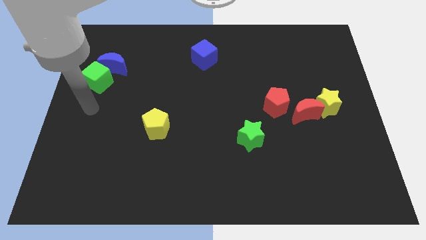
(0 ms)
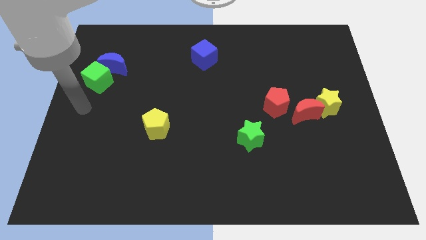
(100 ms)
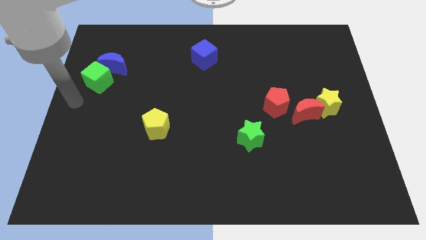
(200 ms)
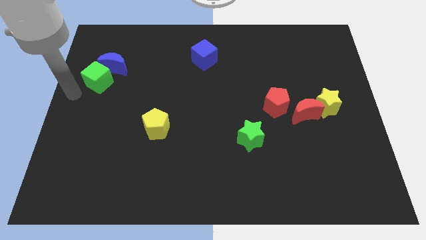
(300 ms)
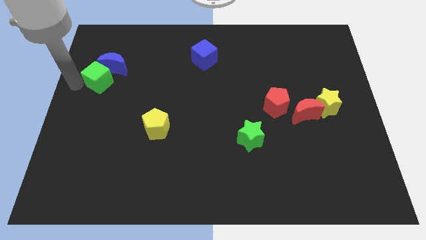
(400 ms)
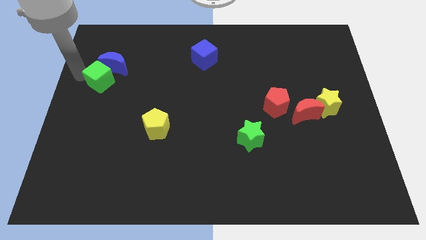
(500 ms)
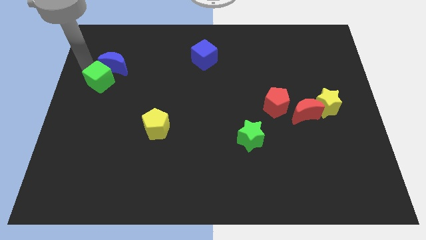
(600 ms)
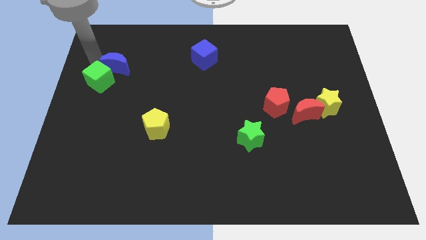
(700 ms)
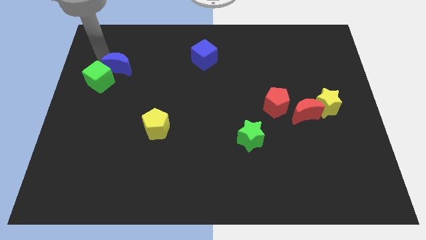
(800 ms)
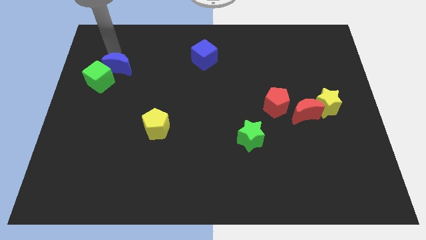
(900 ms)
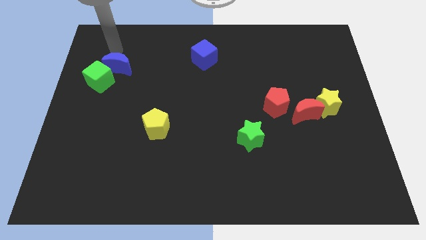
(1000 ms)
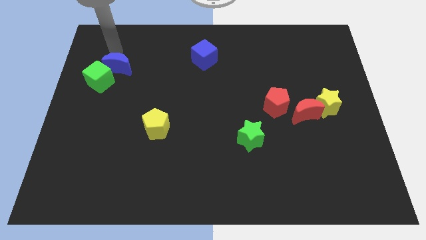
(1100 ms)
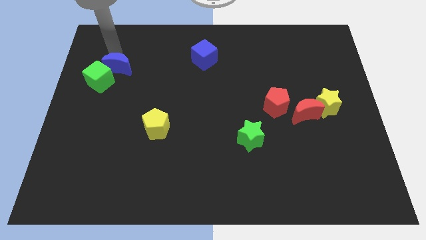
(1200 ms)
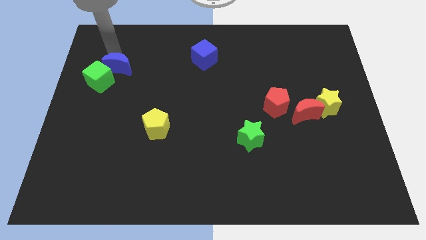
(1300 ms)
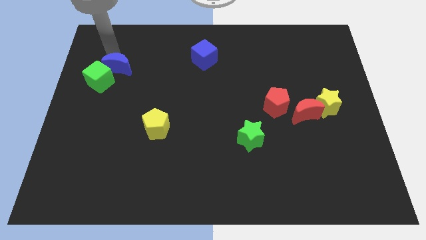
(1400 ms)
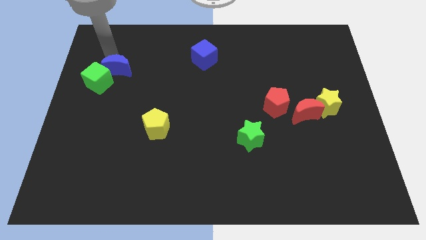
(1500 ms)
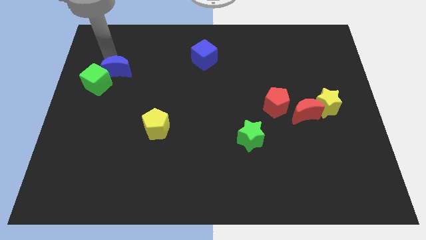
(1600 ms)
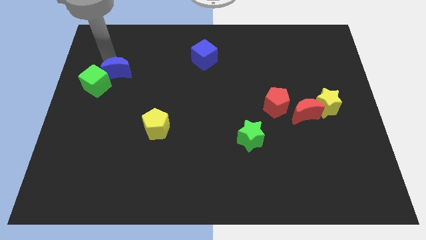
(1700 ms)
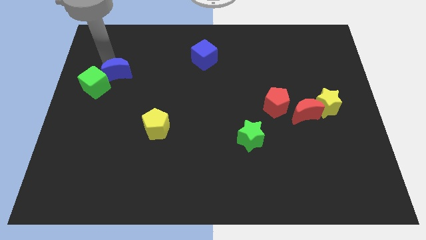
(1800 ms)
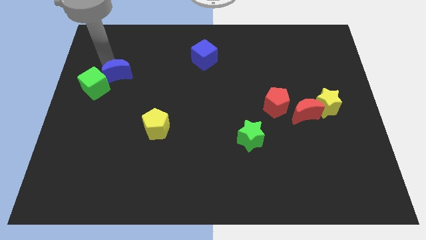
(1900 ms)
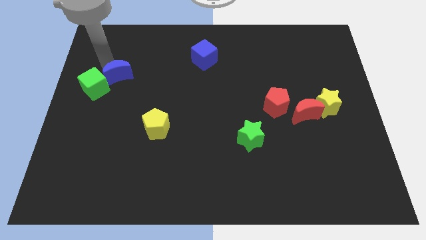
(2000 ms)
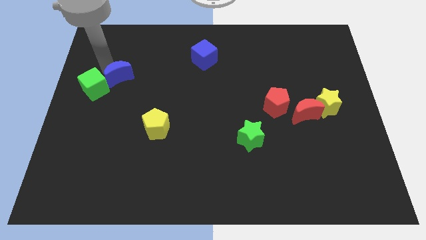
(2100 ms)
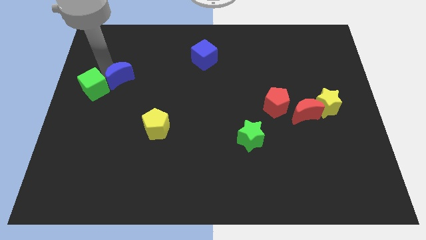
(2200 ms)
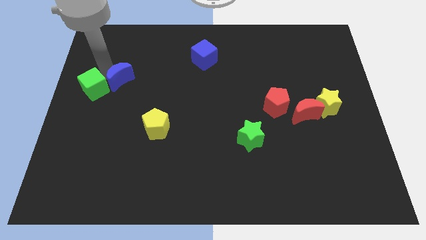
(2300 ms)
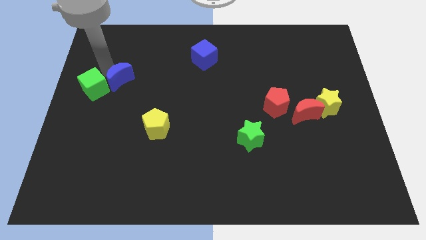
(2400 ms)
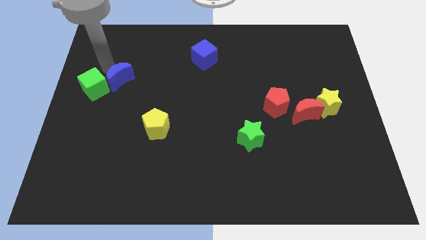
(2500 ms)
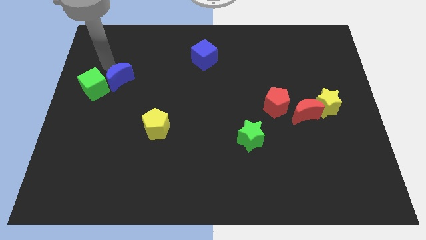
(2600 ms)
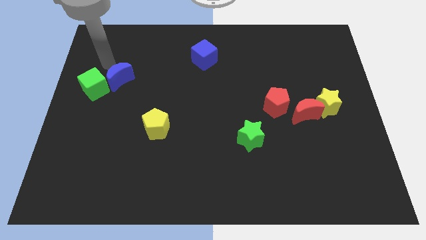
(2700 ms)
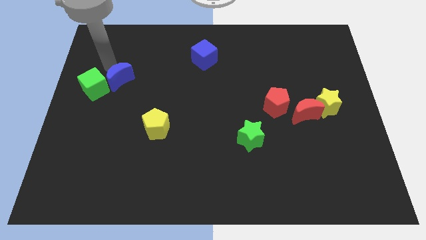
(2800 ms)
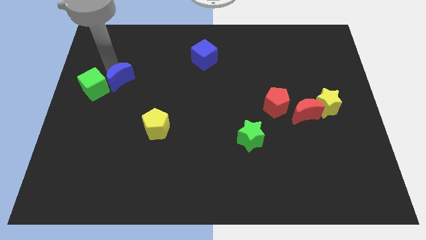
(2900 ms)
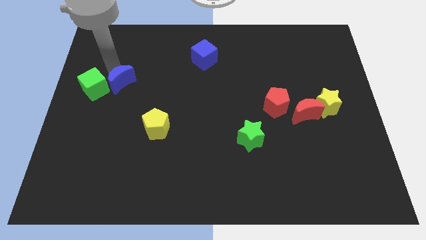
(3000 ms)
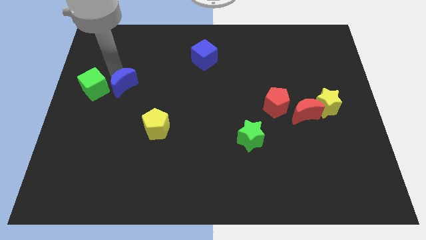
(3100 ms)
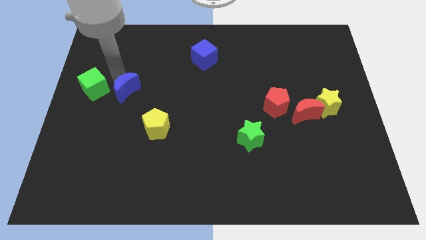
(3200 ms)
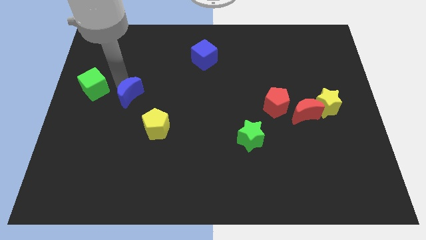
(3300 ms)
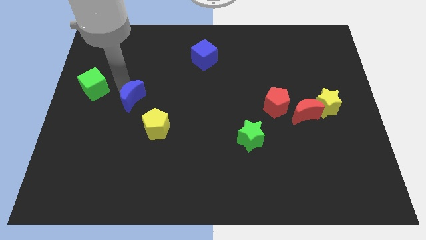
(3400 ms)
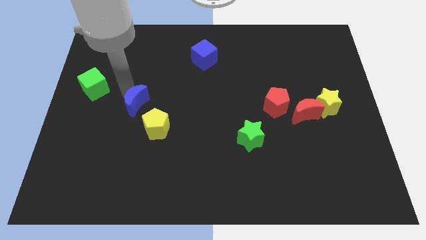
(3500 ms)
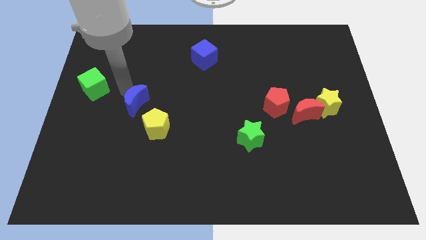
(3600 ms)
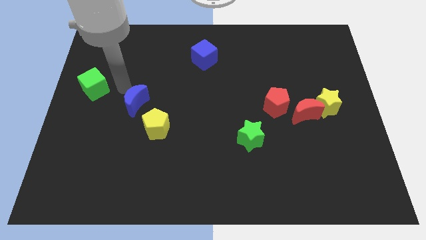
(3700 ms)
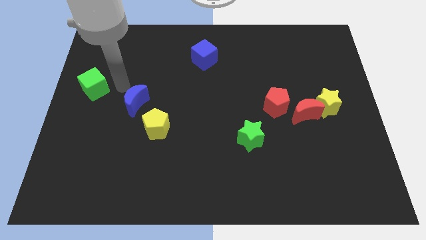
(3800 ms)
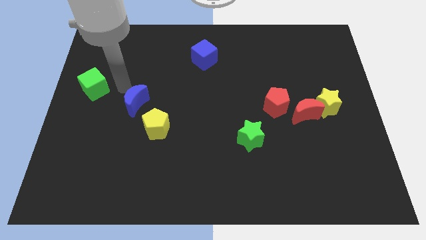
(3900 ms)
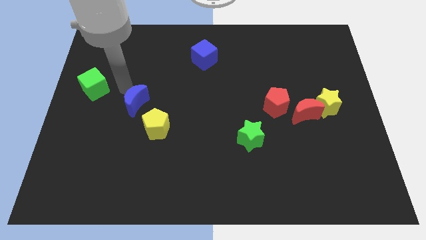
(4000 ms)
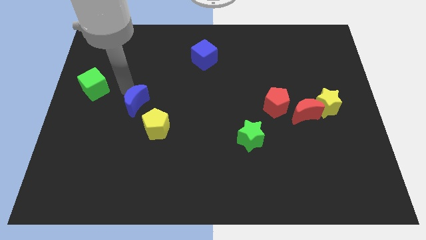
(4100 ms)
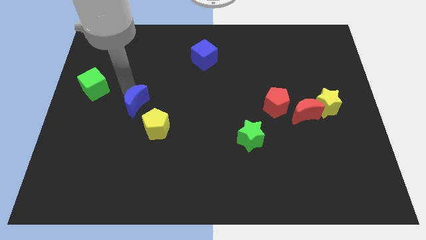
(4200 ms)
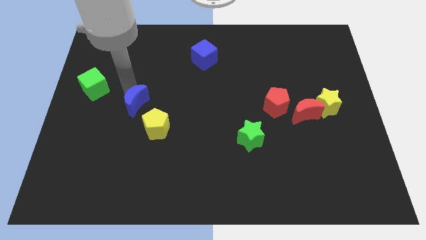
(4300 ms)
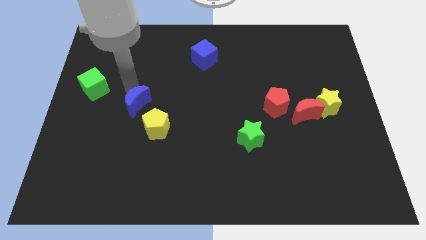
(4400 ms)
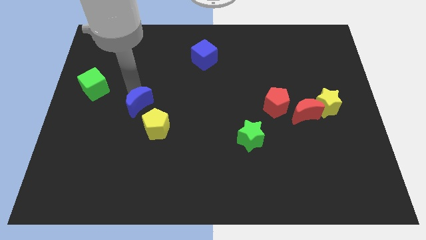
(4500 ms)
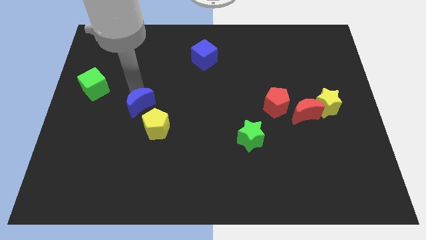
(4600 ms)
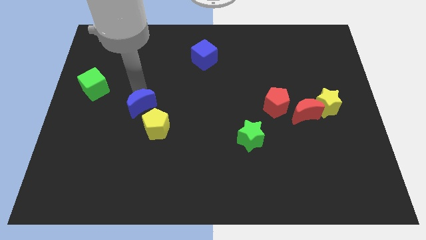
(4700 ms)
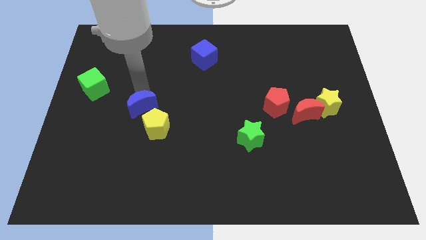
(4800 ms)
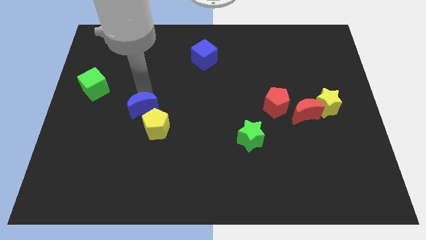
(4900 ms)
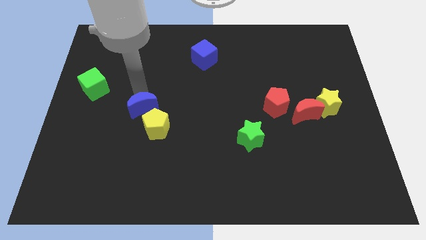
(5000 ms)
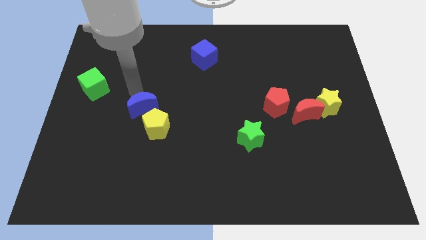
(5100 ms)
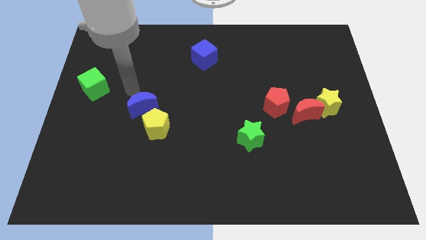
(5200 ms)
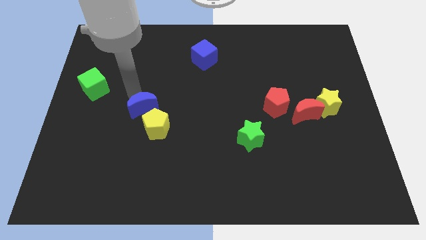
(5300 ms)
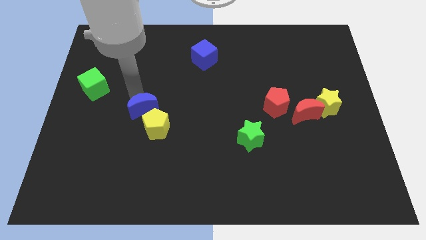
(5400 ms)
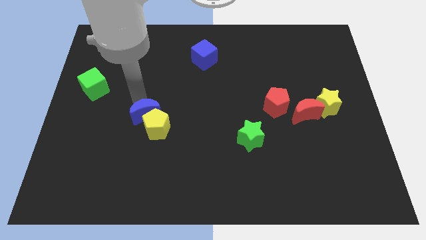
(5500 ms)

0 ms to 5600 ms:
push the blue moon to the yellow pentagon

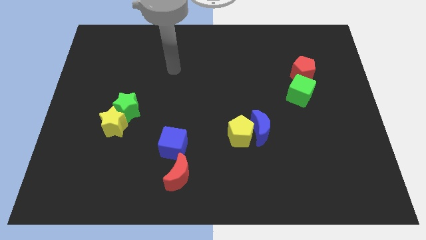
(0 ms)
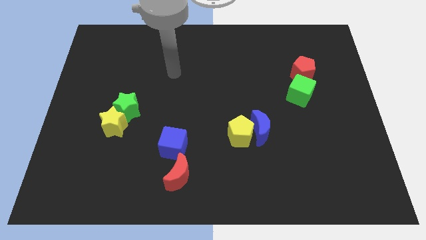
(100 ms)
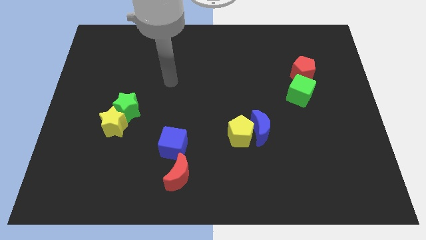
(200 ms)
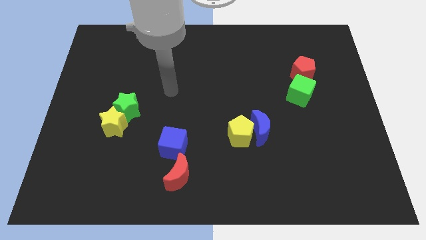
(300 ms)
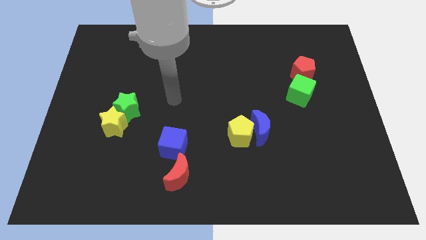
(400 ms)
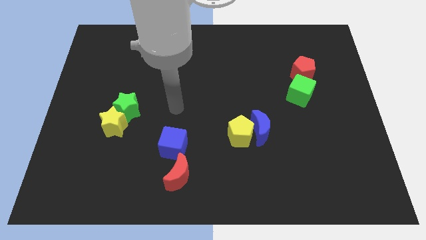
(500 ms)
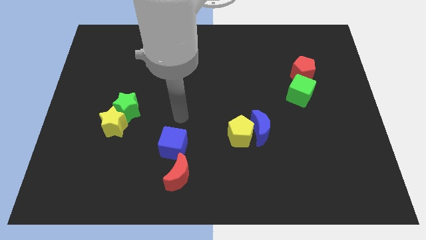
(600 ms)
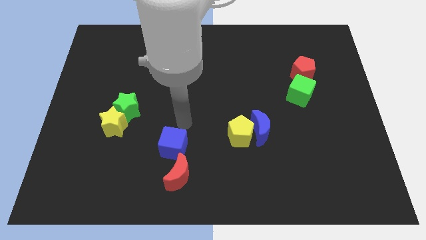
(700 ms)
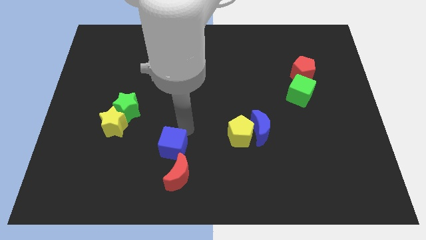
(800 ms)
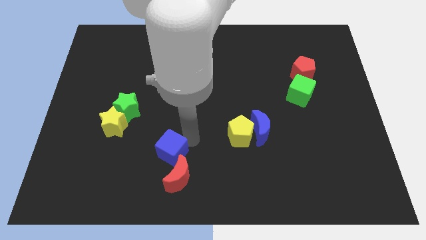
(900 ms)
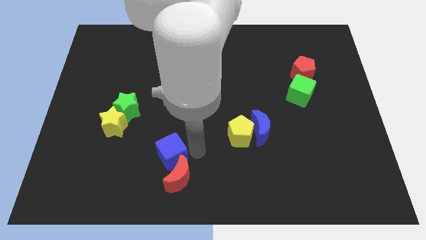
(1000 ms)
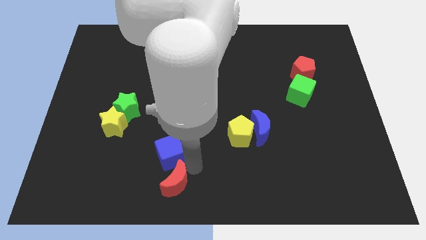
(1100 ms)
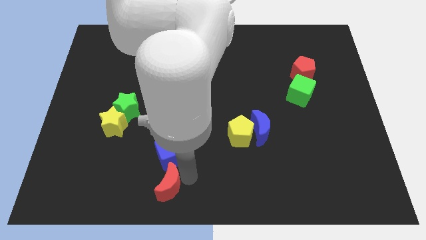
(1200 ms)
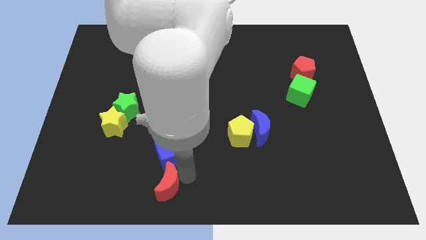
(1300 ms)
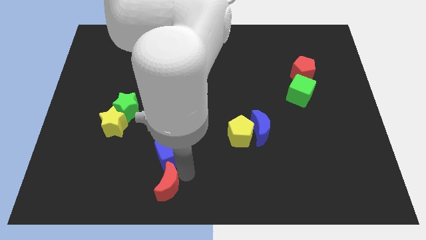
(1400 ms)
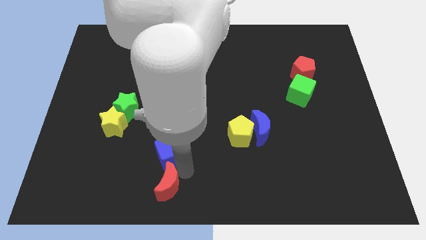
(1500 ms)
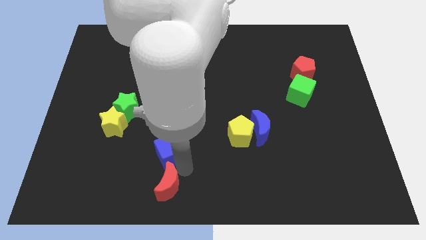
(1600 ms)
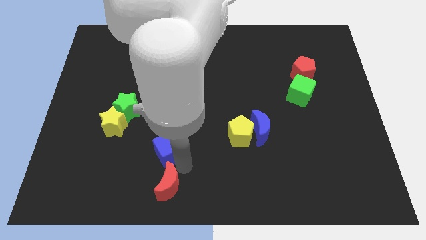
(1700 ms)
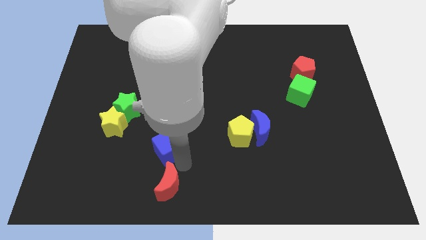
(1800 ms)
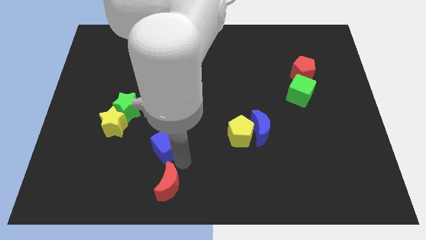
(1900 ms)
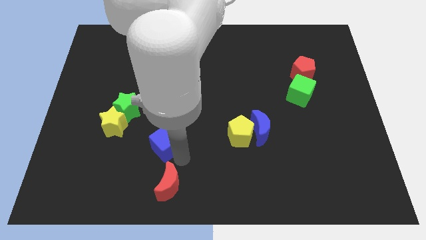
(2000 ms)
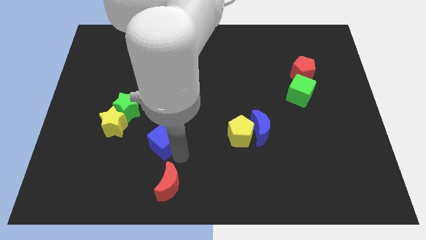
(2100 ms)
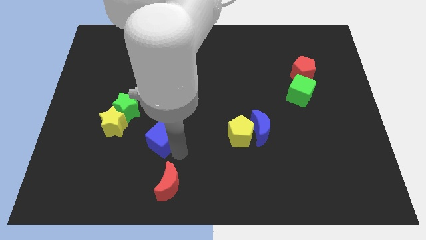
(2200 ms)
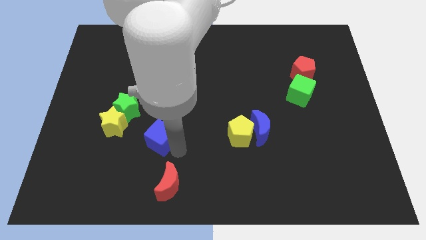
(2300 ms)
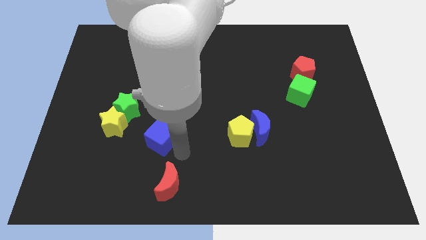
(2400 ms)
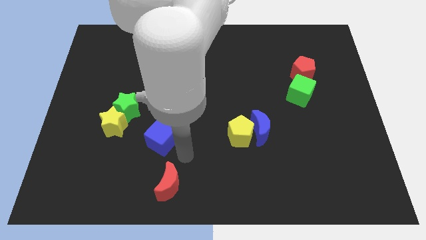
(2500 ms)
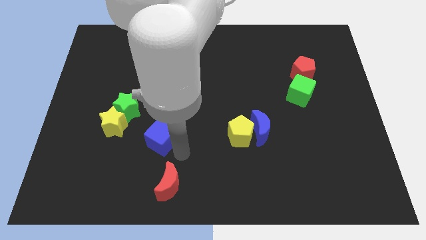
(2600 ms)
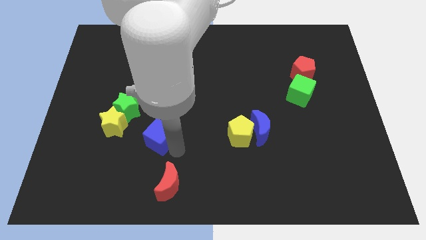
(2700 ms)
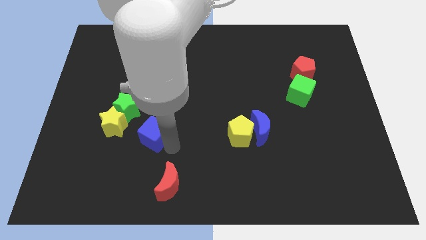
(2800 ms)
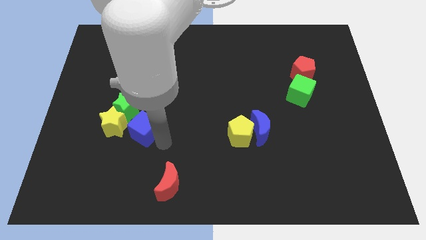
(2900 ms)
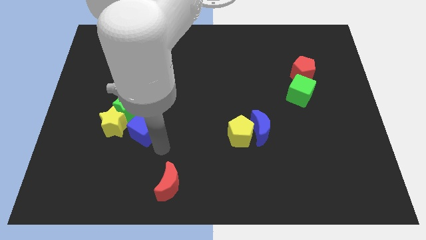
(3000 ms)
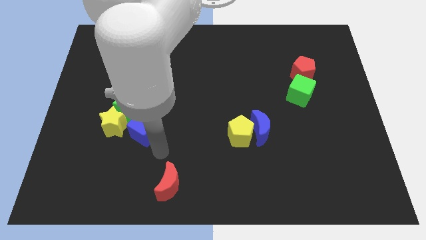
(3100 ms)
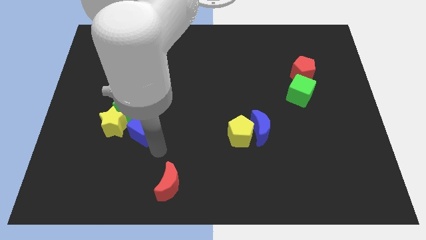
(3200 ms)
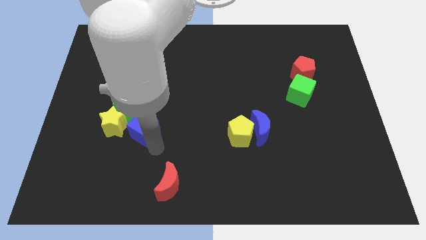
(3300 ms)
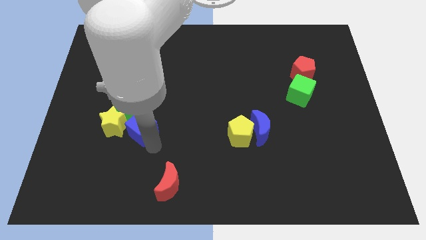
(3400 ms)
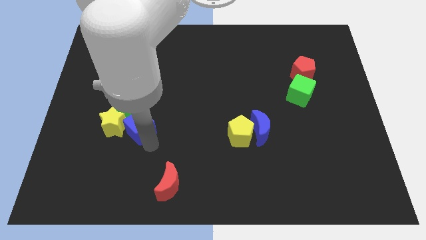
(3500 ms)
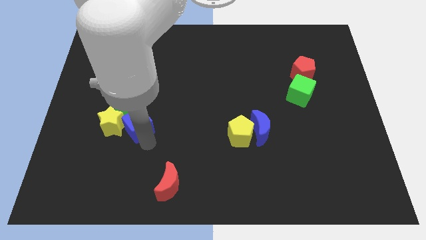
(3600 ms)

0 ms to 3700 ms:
move the blue cube next to the green star
